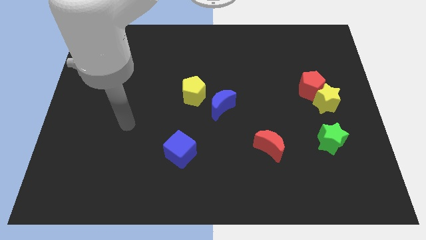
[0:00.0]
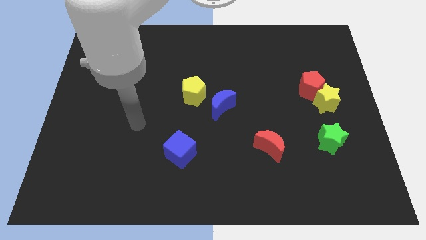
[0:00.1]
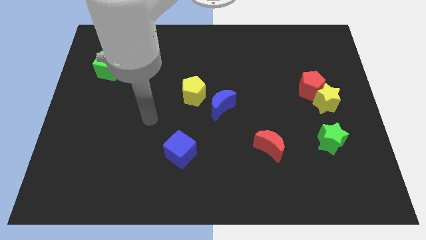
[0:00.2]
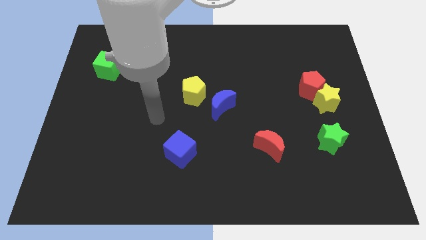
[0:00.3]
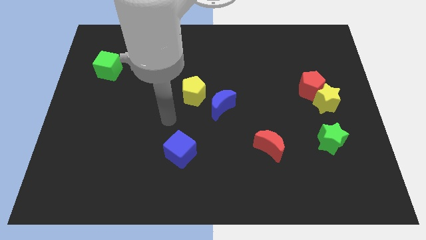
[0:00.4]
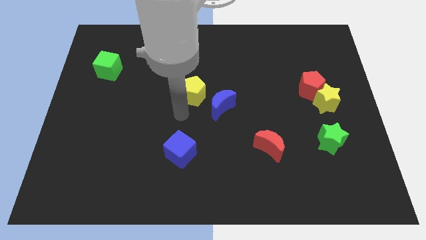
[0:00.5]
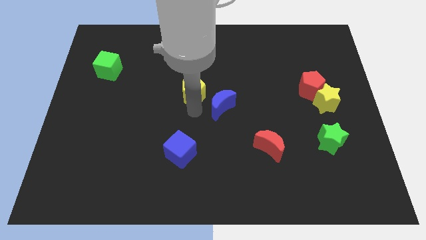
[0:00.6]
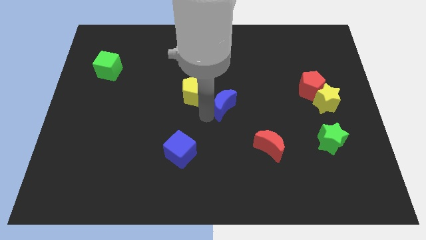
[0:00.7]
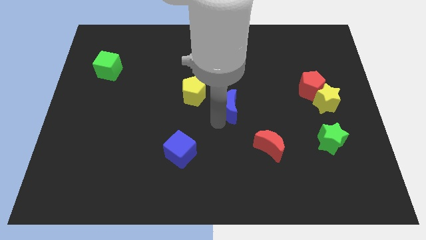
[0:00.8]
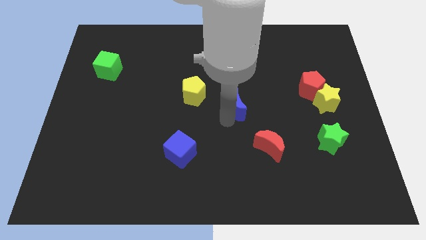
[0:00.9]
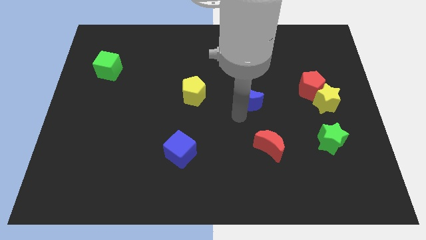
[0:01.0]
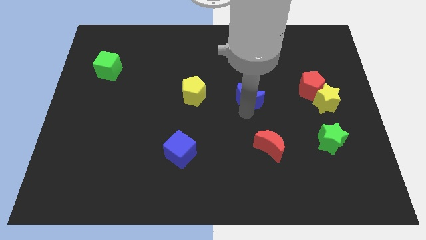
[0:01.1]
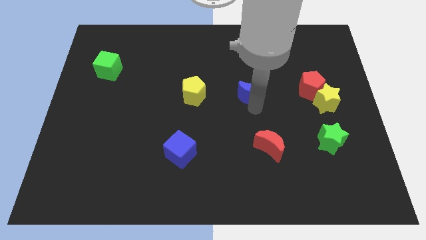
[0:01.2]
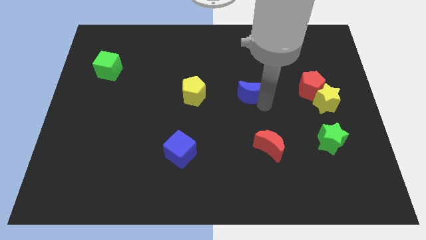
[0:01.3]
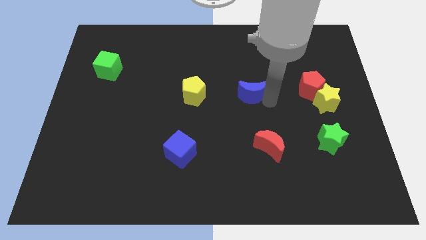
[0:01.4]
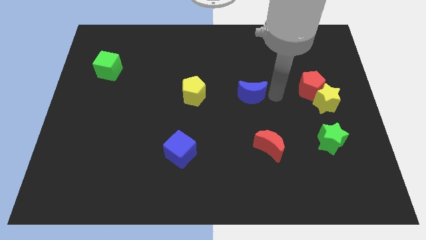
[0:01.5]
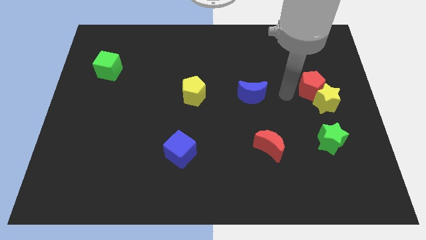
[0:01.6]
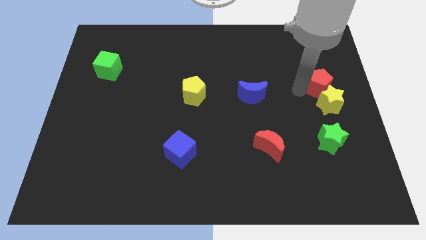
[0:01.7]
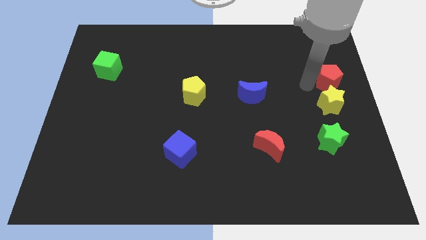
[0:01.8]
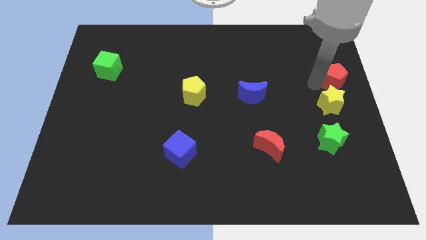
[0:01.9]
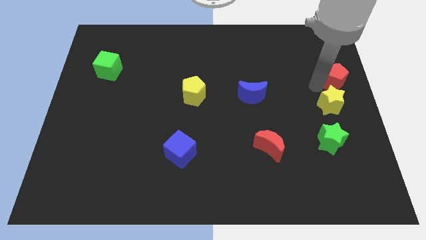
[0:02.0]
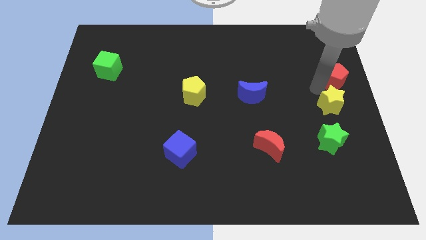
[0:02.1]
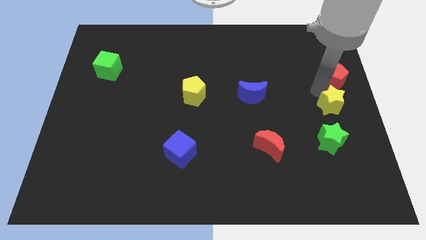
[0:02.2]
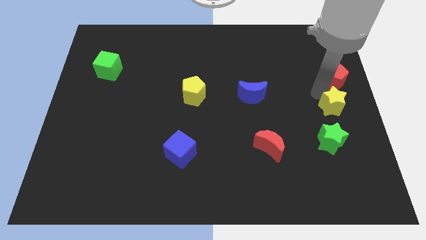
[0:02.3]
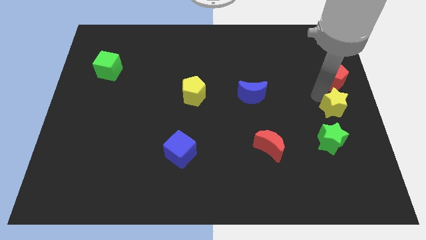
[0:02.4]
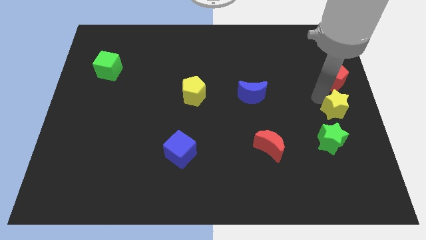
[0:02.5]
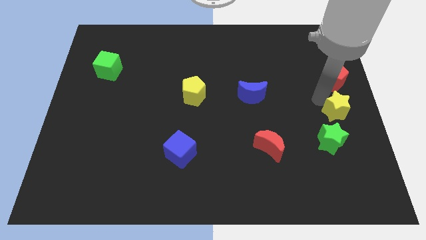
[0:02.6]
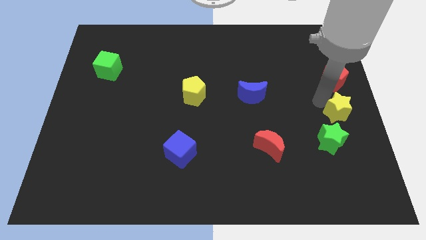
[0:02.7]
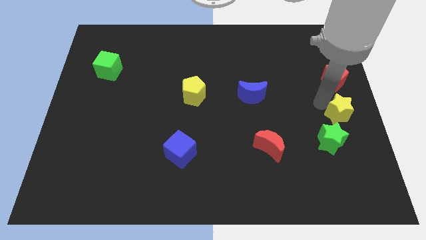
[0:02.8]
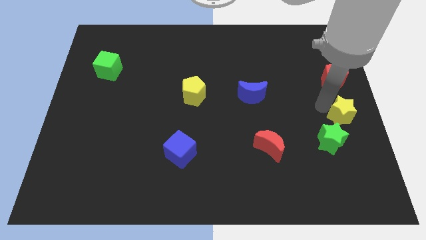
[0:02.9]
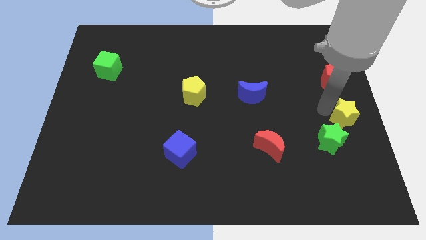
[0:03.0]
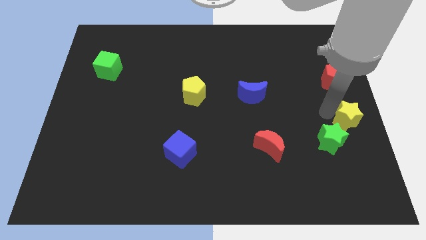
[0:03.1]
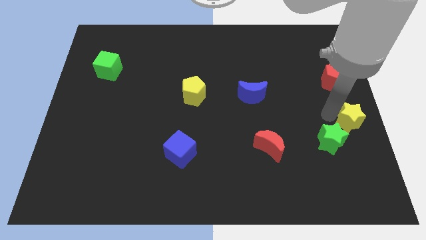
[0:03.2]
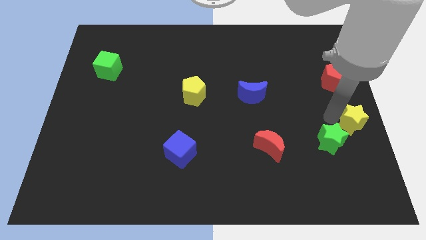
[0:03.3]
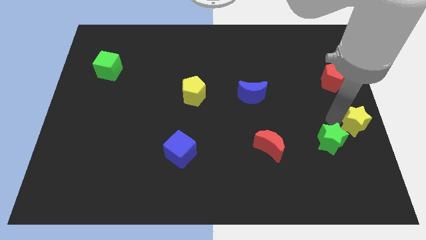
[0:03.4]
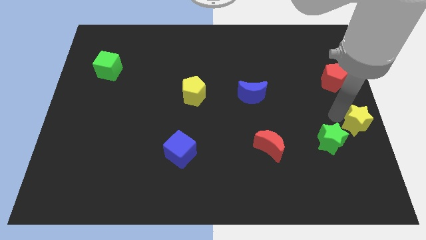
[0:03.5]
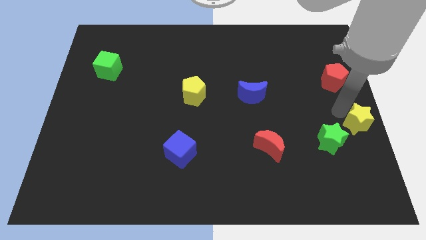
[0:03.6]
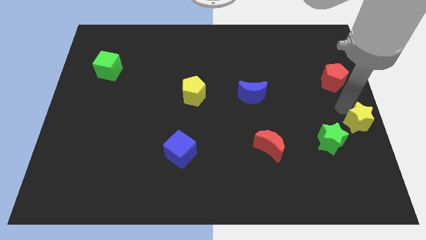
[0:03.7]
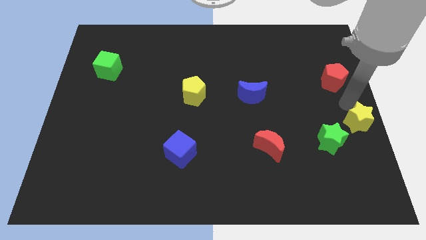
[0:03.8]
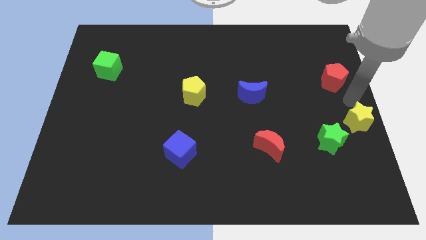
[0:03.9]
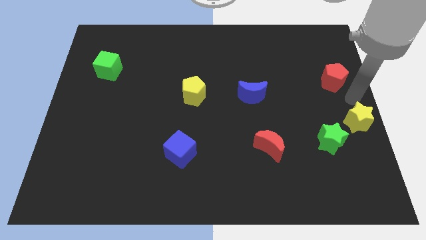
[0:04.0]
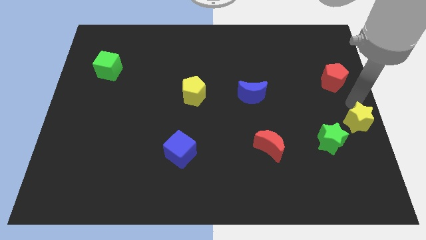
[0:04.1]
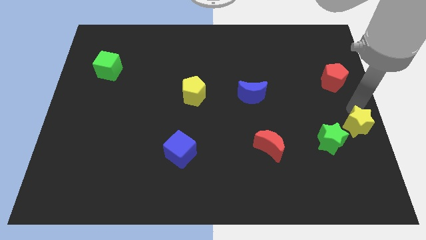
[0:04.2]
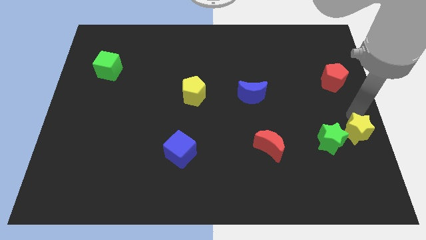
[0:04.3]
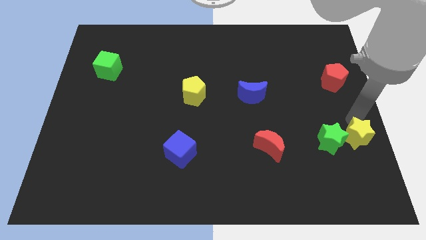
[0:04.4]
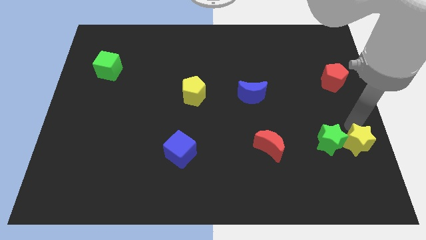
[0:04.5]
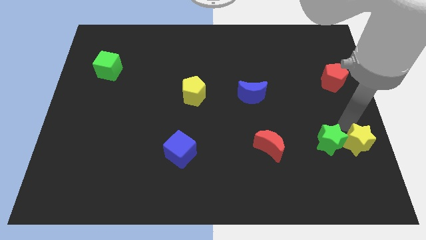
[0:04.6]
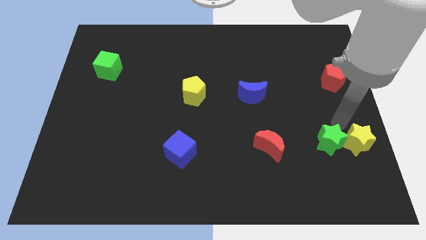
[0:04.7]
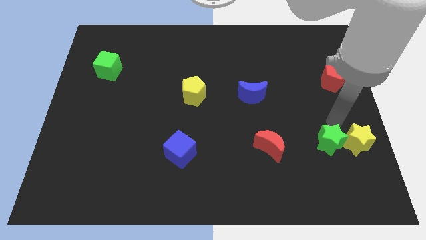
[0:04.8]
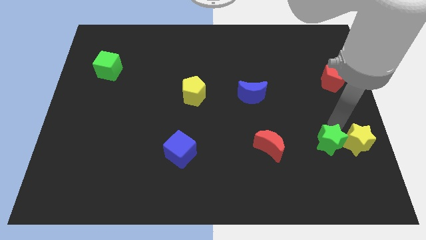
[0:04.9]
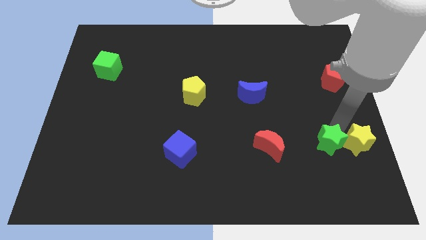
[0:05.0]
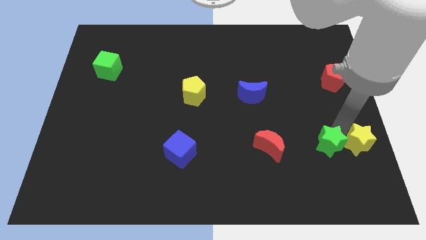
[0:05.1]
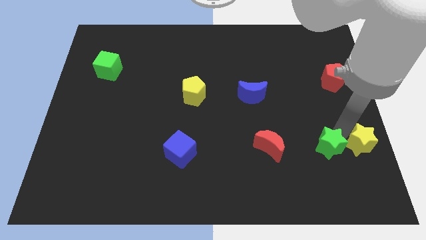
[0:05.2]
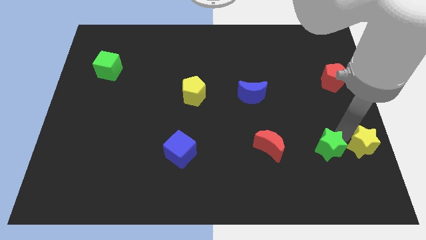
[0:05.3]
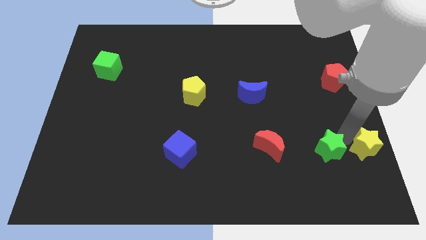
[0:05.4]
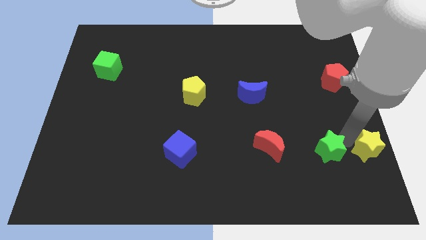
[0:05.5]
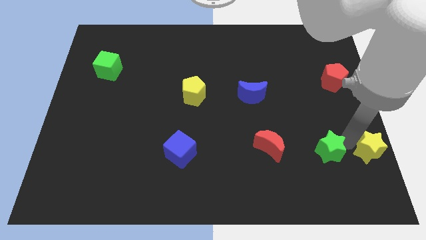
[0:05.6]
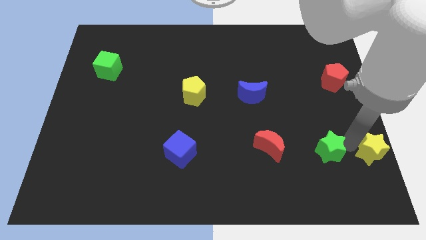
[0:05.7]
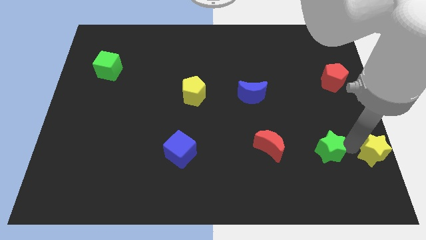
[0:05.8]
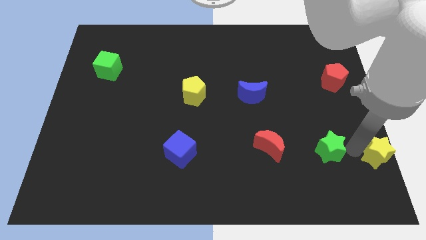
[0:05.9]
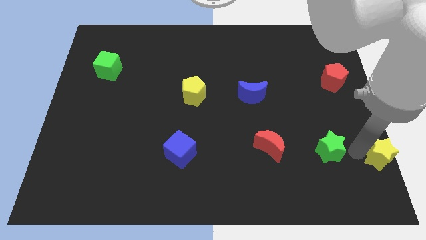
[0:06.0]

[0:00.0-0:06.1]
push the yellow star to the bottom right

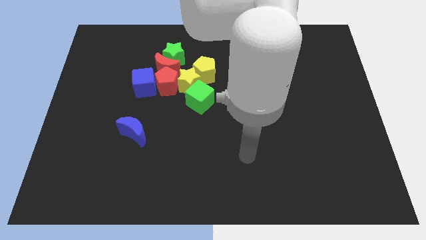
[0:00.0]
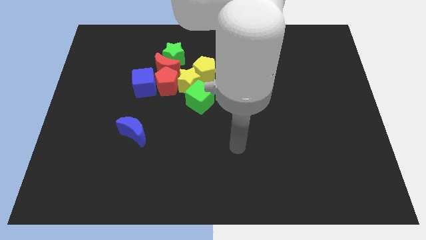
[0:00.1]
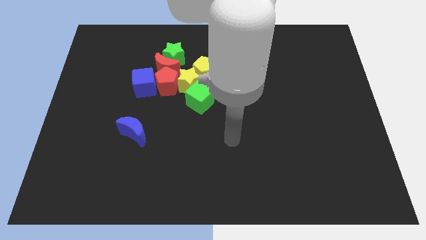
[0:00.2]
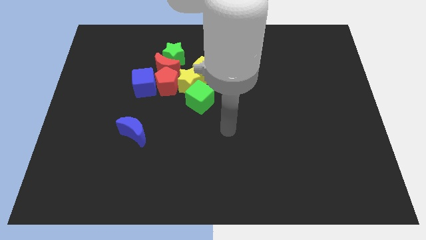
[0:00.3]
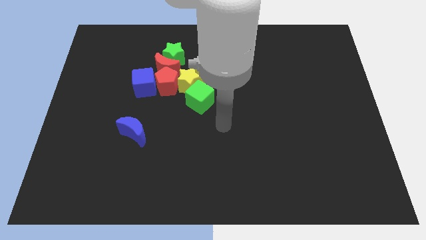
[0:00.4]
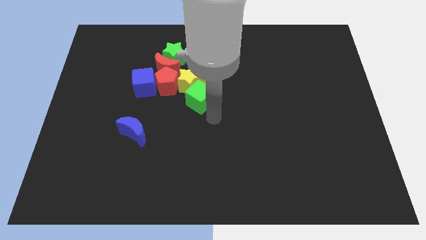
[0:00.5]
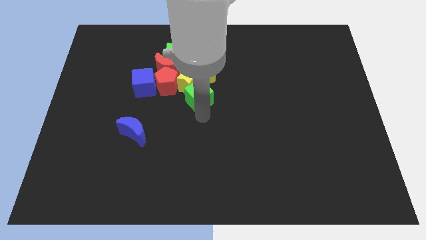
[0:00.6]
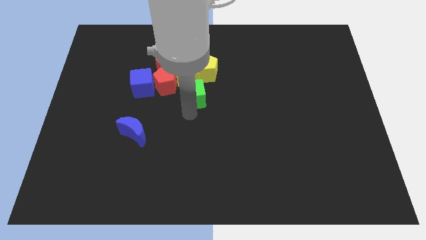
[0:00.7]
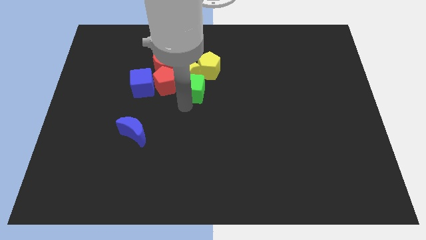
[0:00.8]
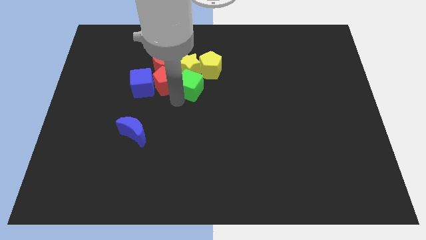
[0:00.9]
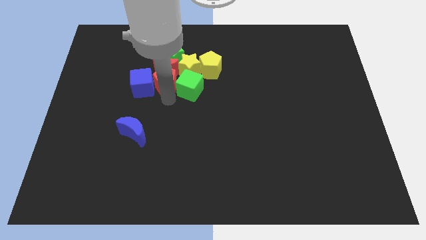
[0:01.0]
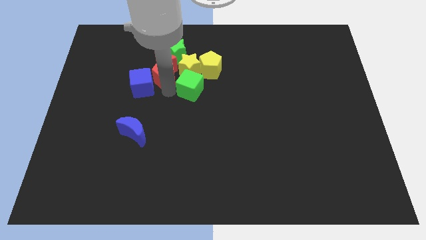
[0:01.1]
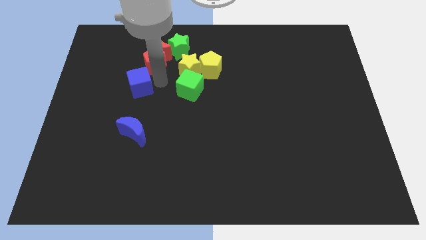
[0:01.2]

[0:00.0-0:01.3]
slide the green star to the top side

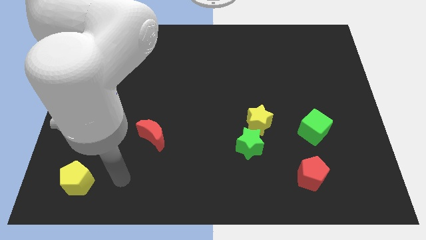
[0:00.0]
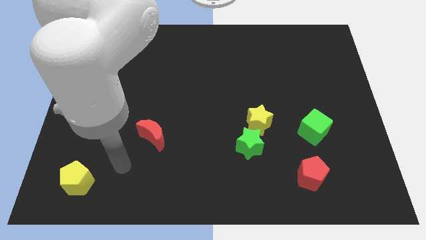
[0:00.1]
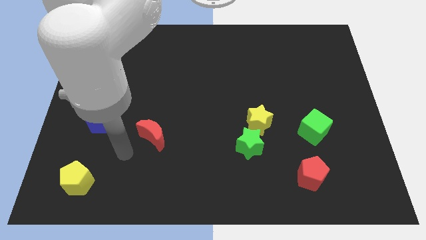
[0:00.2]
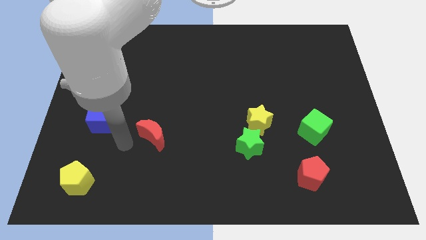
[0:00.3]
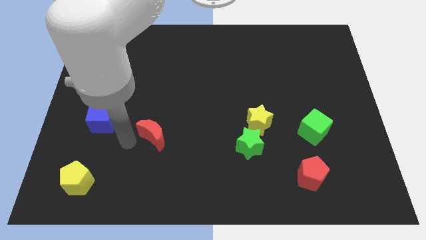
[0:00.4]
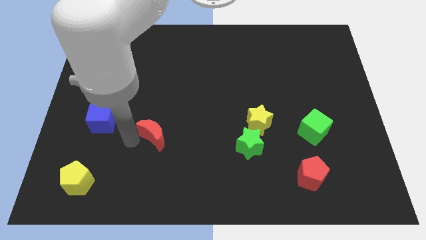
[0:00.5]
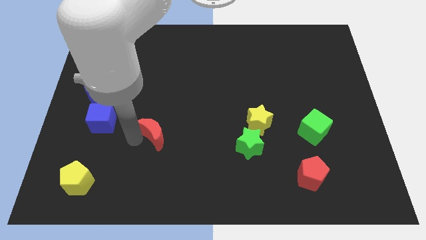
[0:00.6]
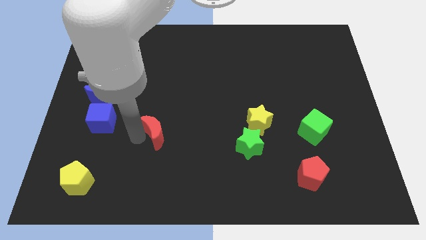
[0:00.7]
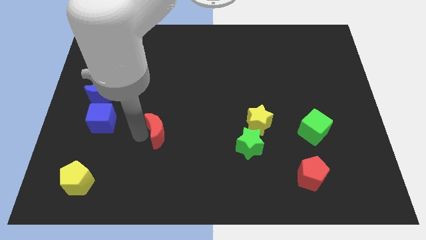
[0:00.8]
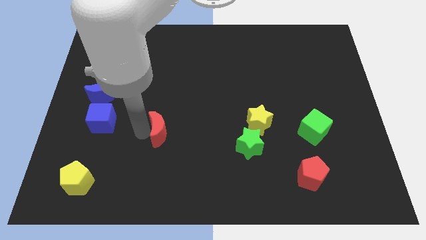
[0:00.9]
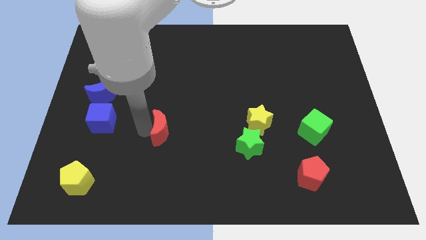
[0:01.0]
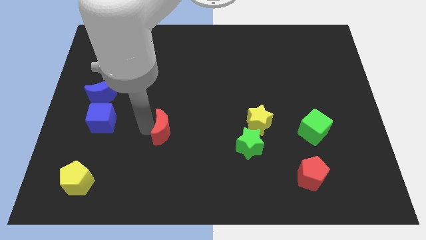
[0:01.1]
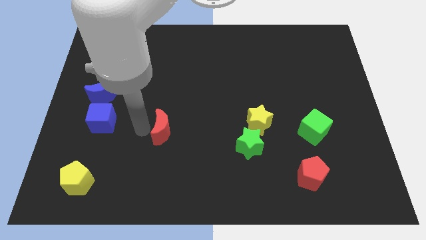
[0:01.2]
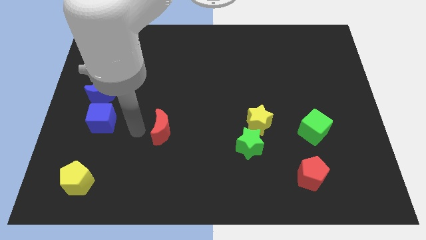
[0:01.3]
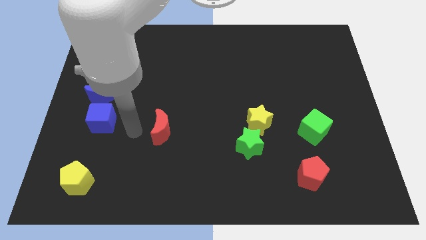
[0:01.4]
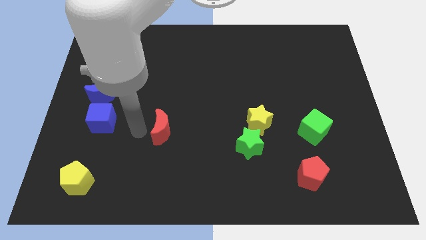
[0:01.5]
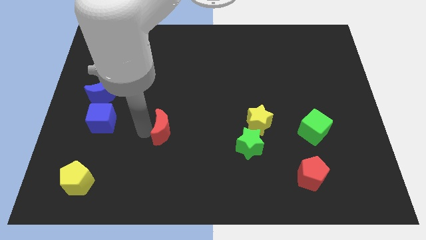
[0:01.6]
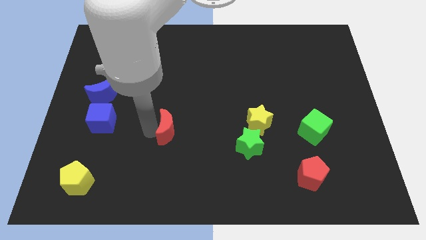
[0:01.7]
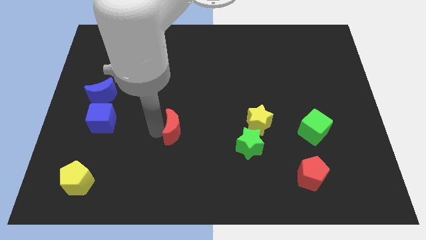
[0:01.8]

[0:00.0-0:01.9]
move the red moon to the middle of the board
